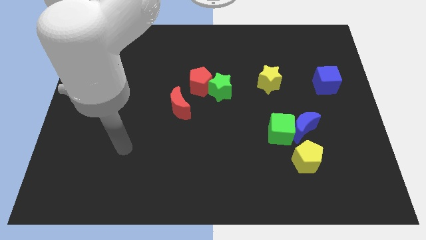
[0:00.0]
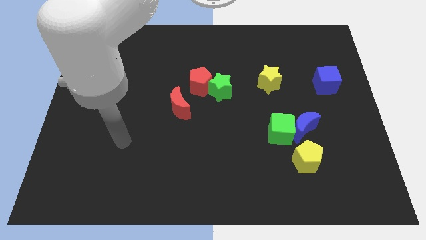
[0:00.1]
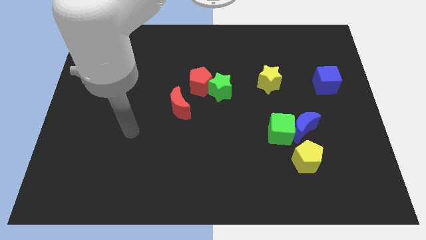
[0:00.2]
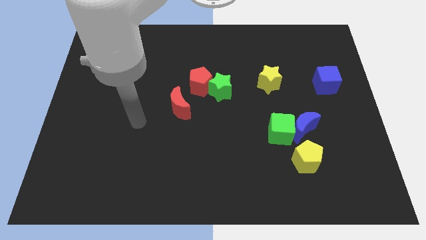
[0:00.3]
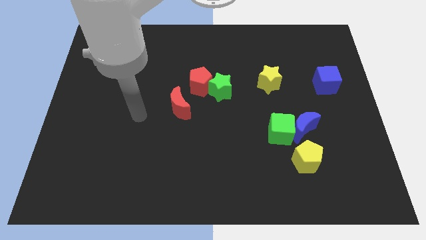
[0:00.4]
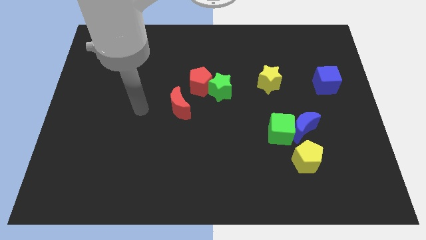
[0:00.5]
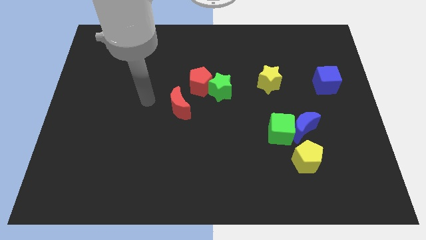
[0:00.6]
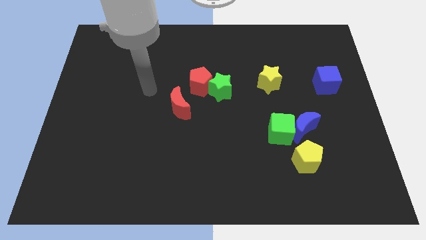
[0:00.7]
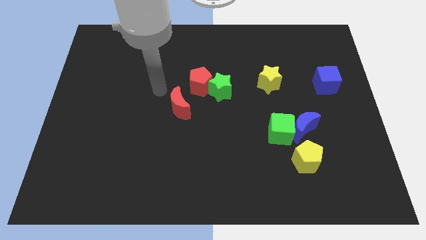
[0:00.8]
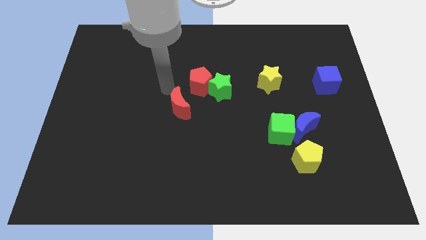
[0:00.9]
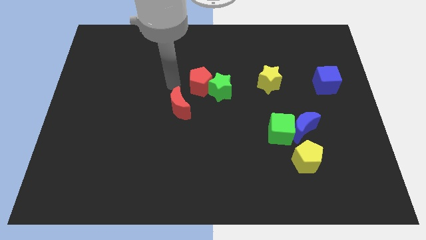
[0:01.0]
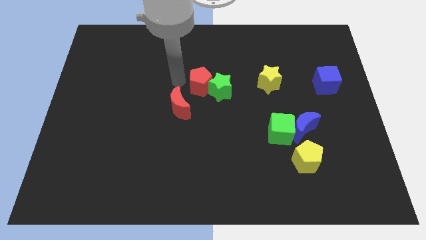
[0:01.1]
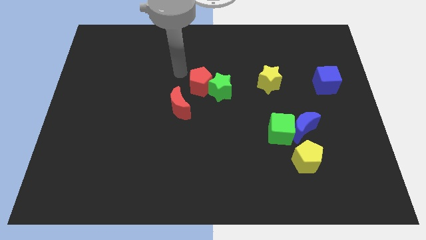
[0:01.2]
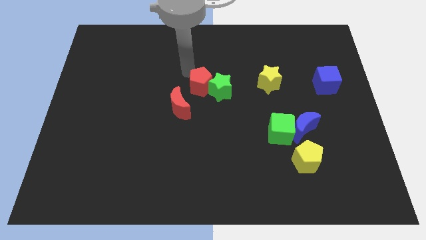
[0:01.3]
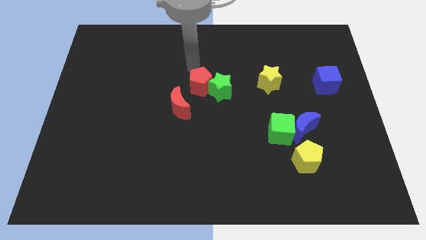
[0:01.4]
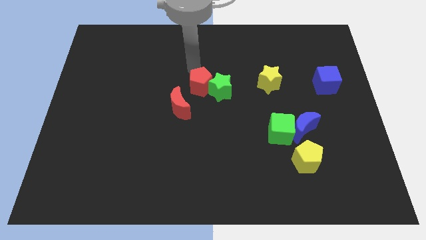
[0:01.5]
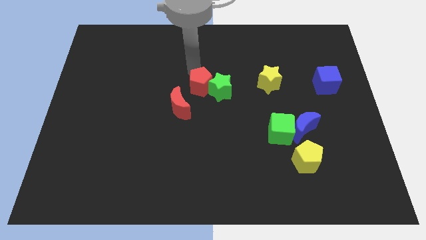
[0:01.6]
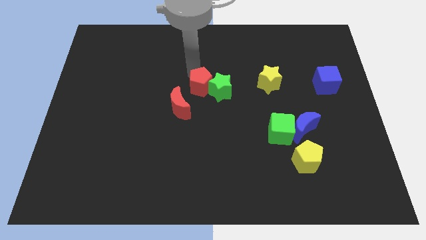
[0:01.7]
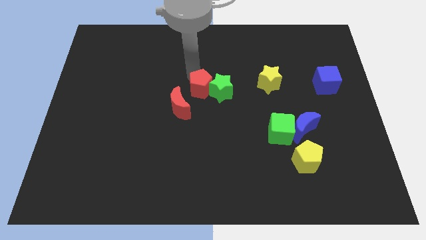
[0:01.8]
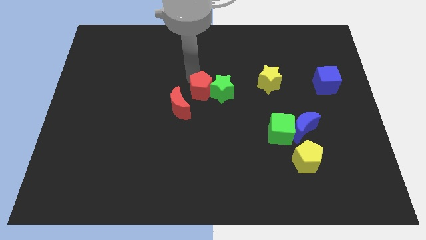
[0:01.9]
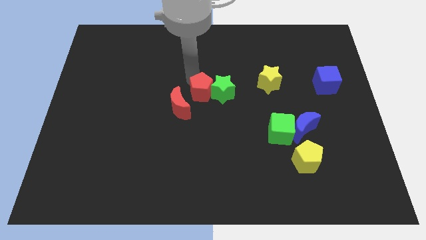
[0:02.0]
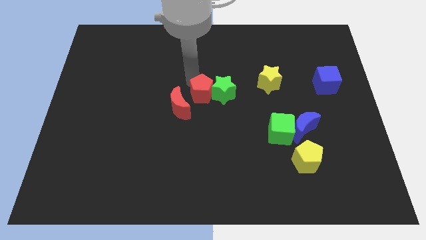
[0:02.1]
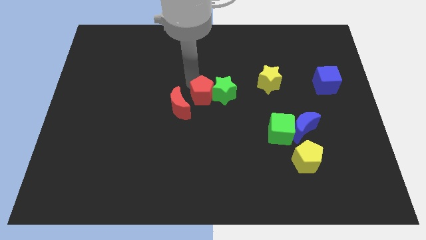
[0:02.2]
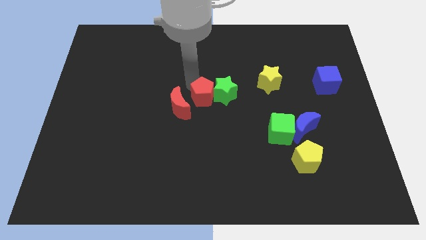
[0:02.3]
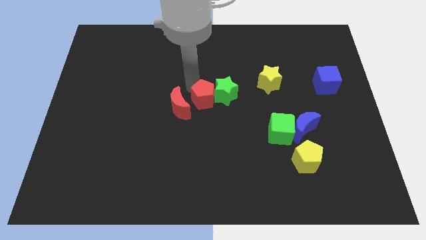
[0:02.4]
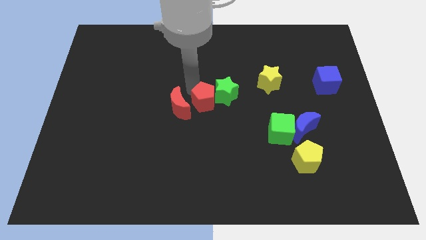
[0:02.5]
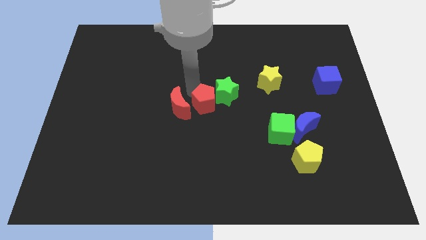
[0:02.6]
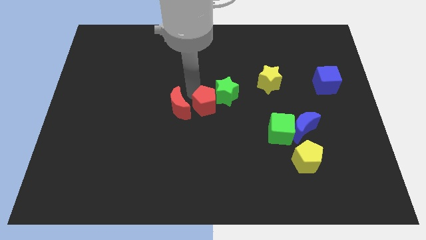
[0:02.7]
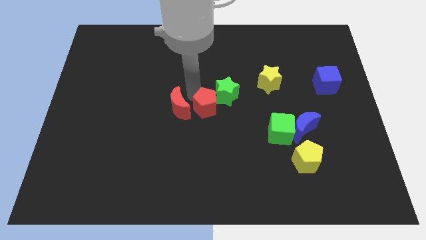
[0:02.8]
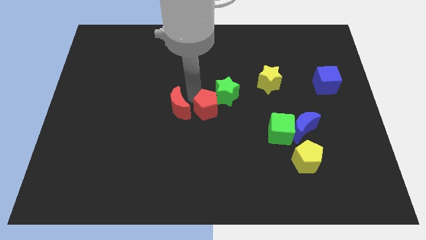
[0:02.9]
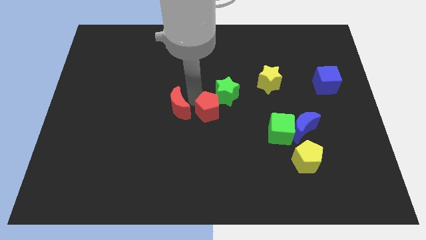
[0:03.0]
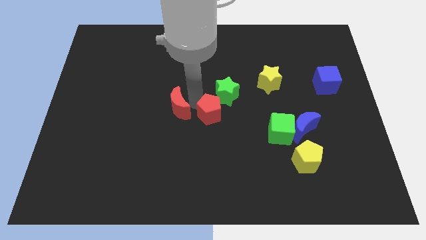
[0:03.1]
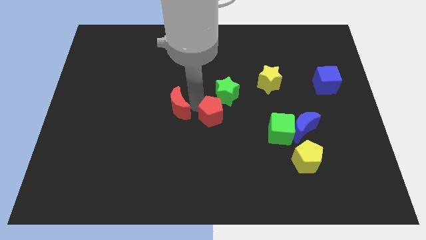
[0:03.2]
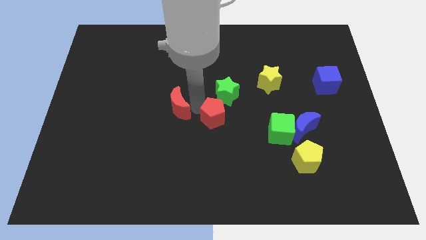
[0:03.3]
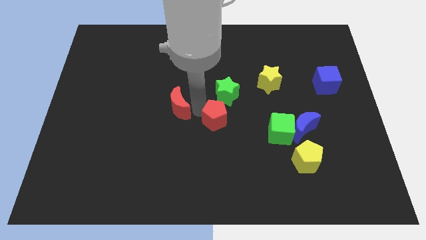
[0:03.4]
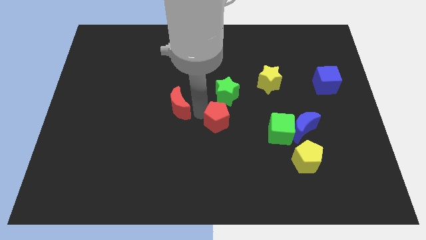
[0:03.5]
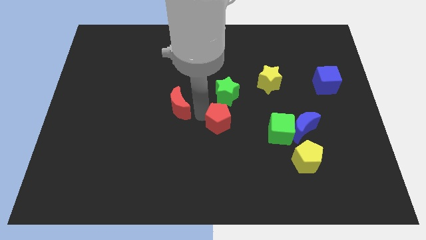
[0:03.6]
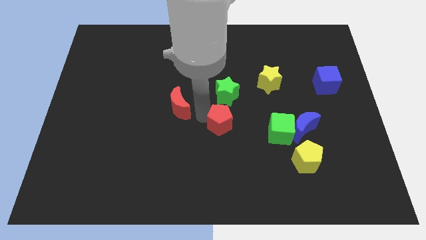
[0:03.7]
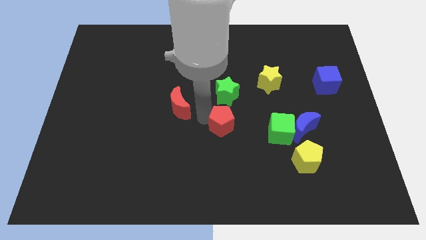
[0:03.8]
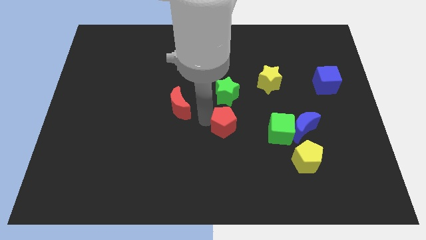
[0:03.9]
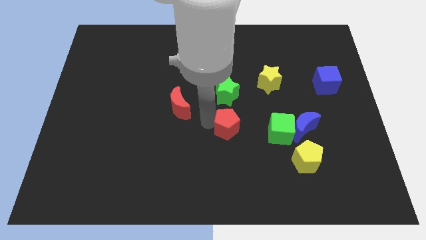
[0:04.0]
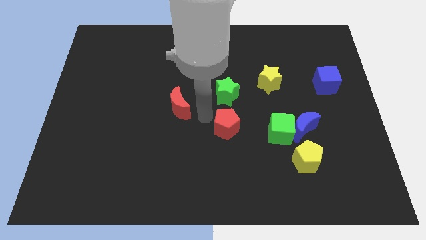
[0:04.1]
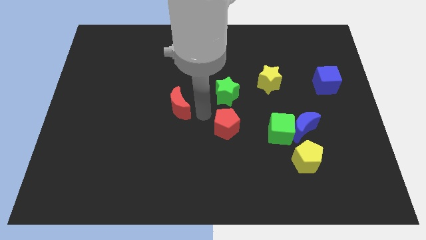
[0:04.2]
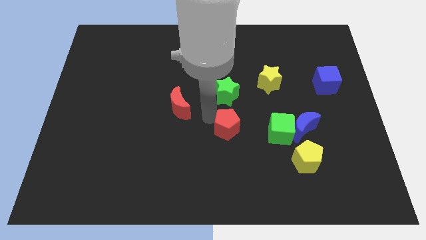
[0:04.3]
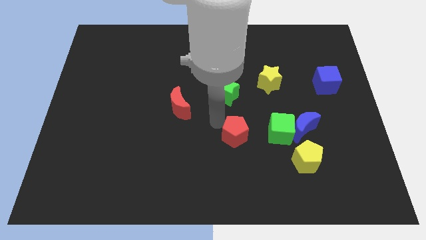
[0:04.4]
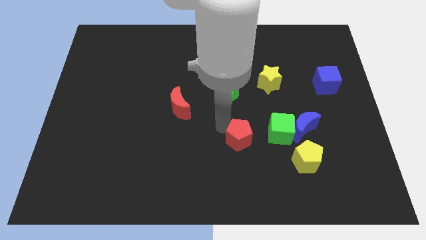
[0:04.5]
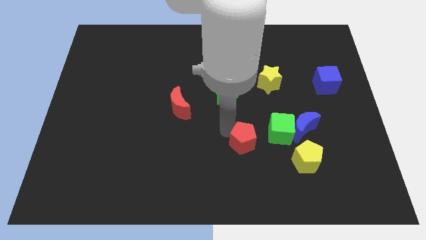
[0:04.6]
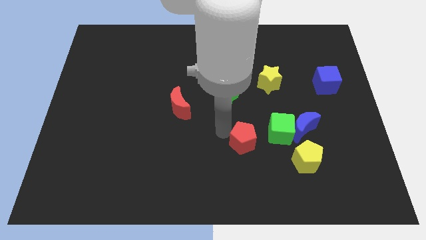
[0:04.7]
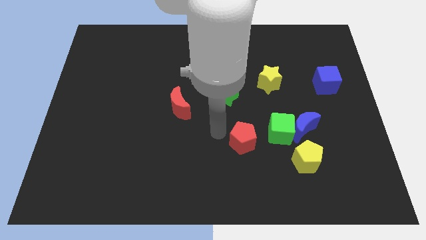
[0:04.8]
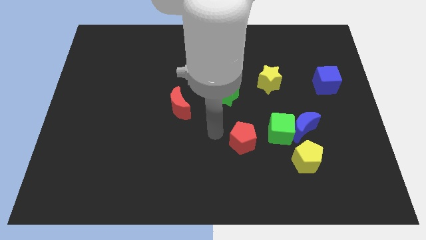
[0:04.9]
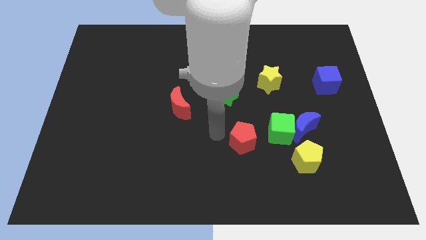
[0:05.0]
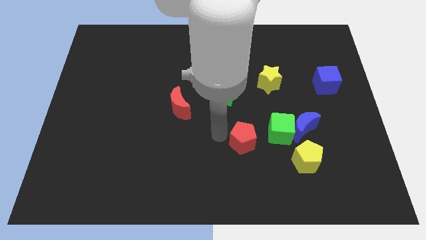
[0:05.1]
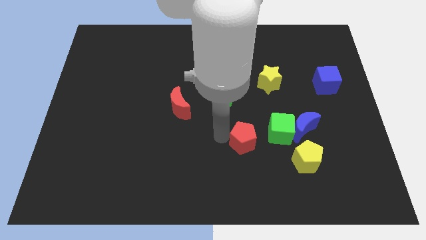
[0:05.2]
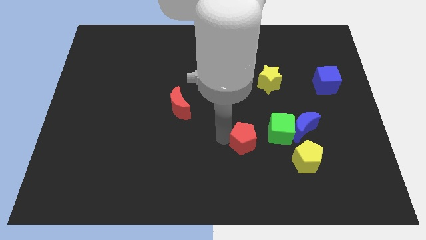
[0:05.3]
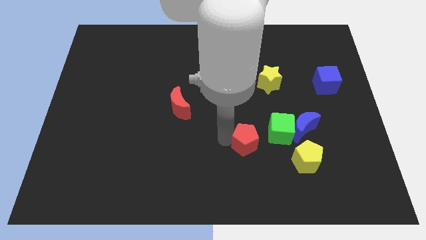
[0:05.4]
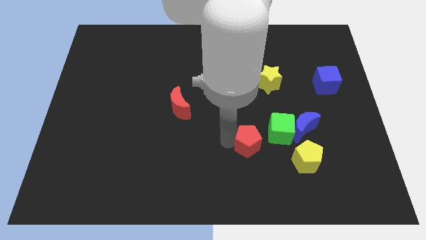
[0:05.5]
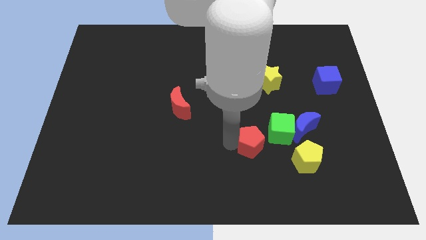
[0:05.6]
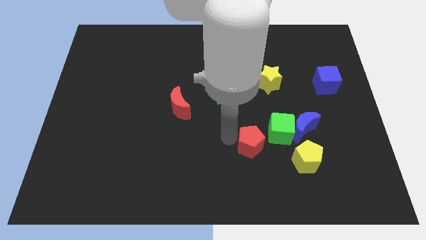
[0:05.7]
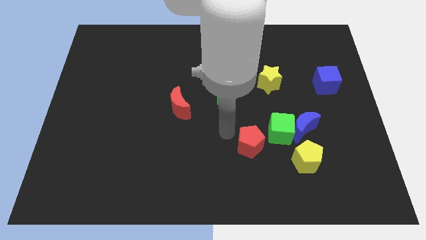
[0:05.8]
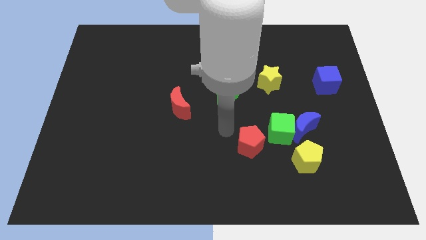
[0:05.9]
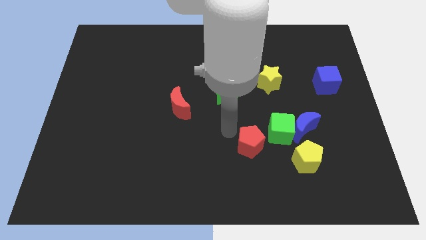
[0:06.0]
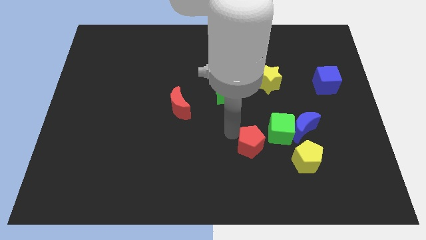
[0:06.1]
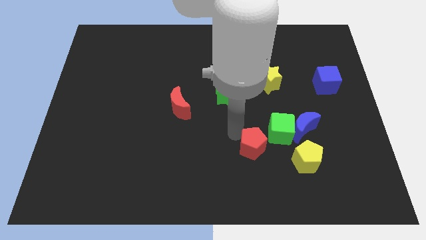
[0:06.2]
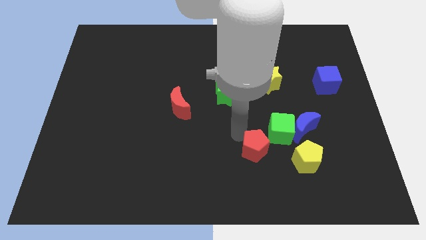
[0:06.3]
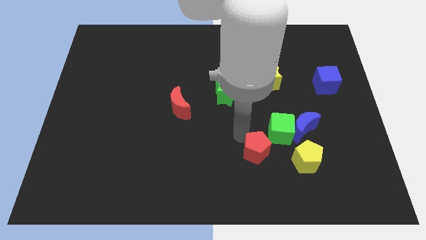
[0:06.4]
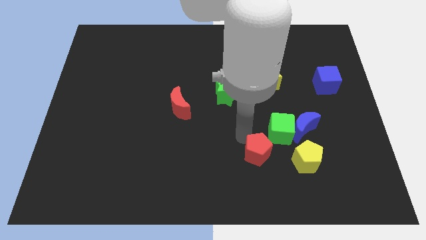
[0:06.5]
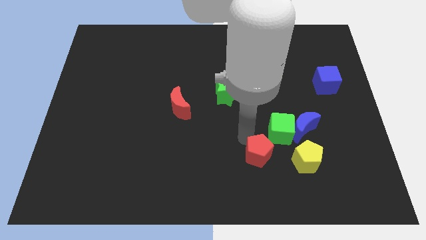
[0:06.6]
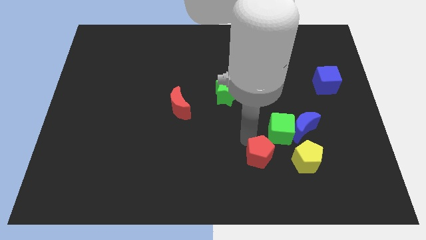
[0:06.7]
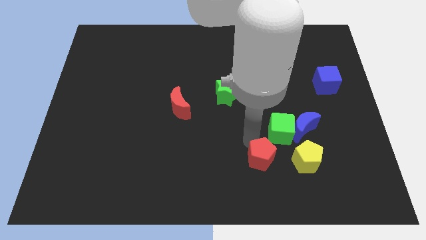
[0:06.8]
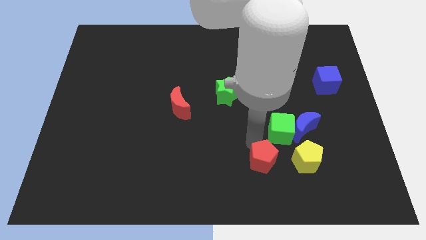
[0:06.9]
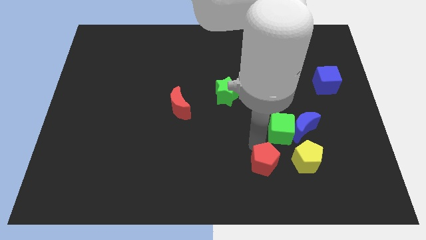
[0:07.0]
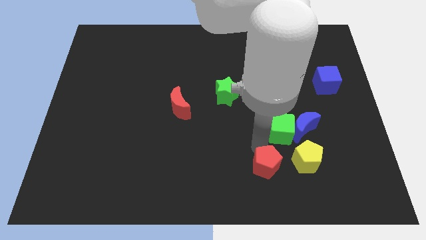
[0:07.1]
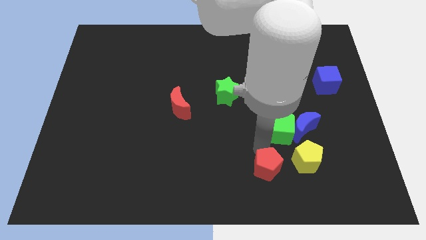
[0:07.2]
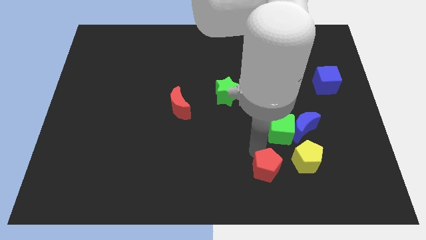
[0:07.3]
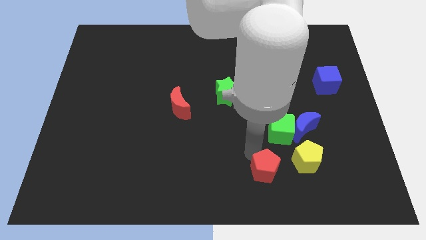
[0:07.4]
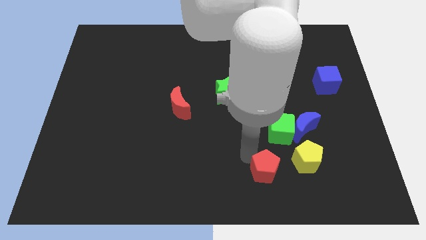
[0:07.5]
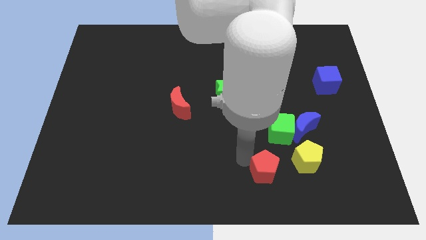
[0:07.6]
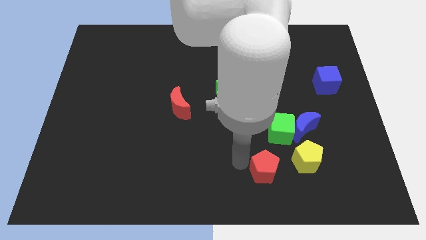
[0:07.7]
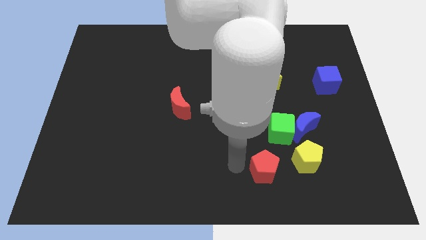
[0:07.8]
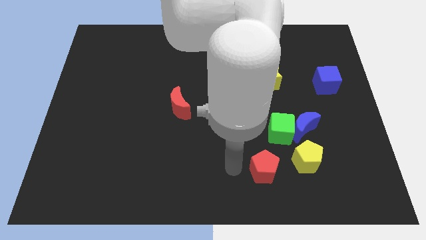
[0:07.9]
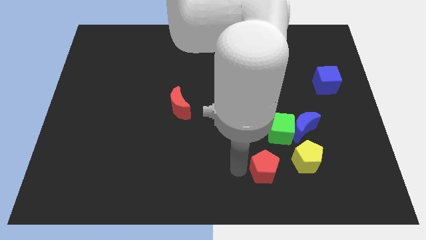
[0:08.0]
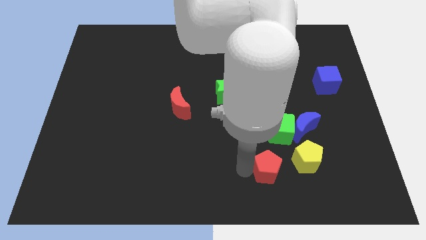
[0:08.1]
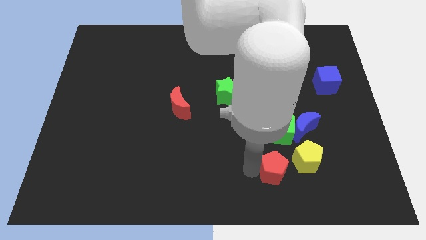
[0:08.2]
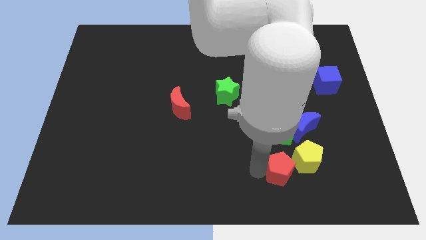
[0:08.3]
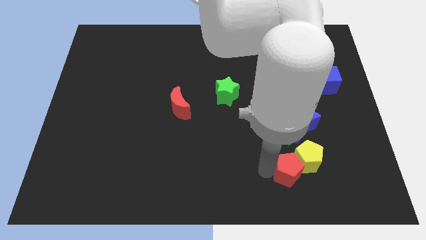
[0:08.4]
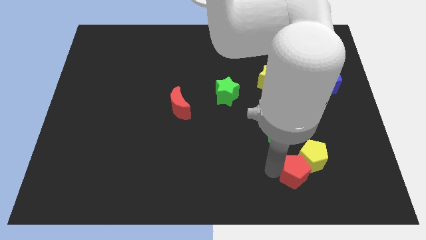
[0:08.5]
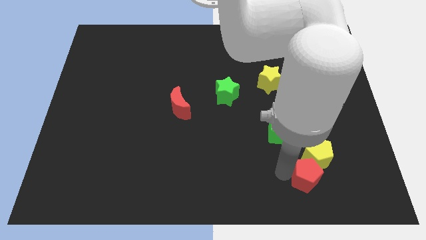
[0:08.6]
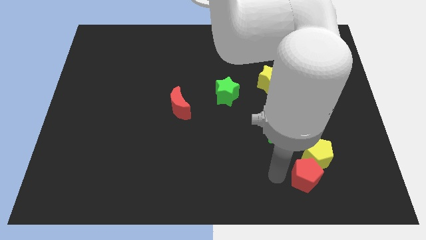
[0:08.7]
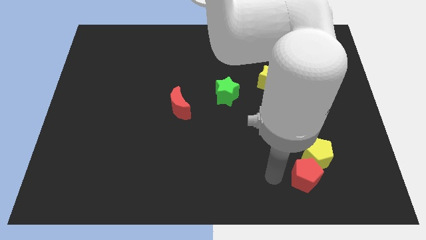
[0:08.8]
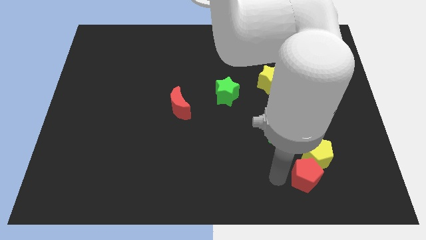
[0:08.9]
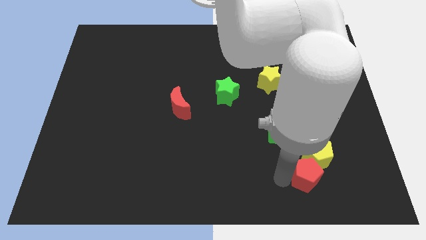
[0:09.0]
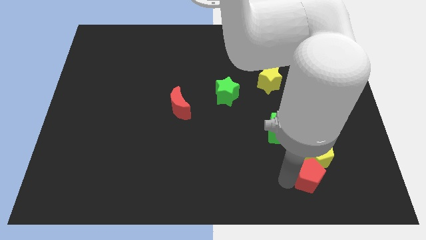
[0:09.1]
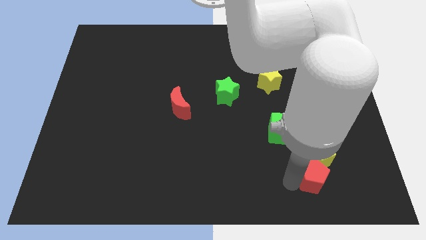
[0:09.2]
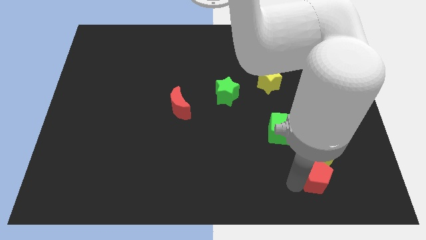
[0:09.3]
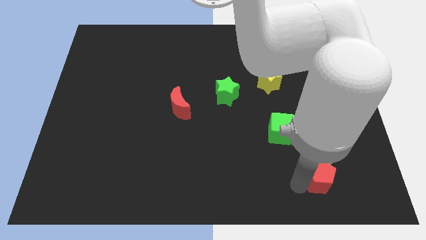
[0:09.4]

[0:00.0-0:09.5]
slide the red pentagon diagonally down and to the right of the yellow pentagon
